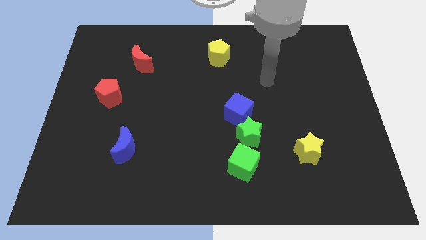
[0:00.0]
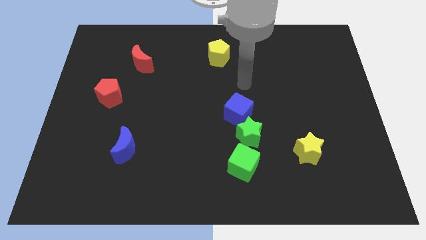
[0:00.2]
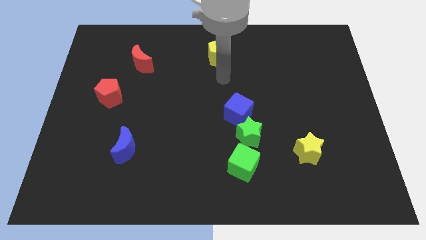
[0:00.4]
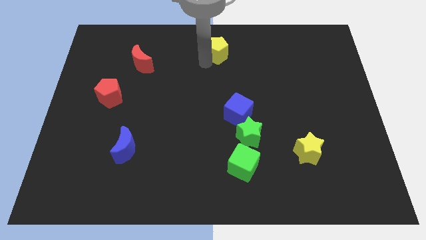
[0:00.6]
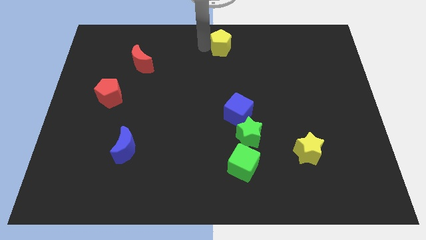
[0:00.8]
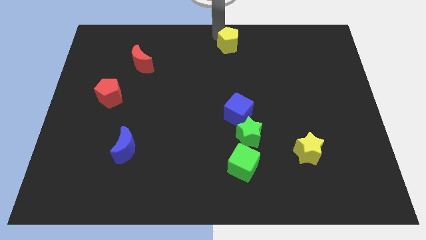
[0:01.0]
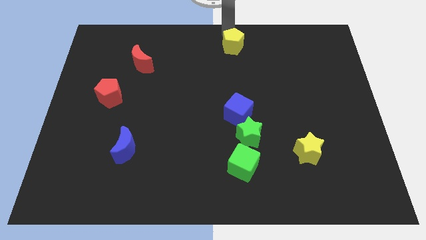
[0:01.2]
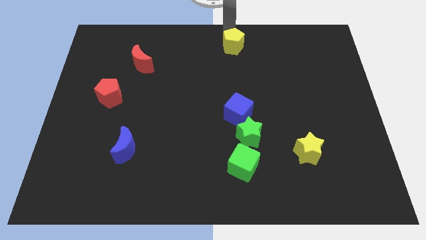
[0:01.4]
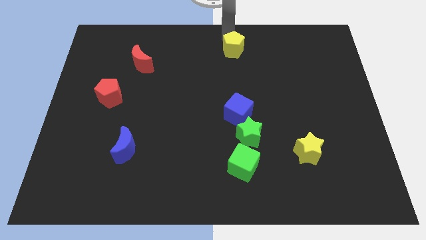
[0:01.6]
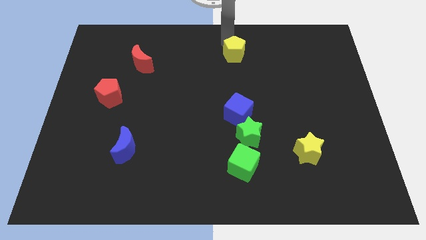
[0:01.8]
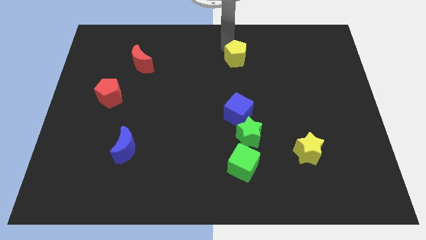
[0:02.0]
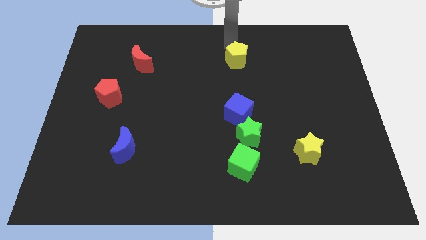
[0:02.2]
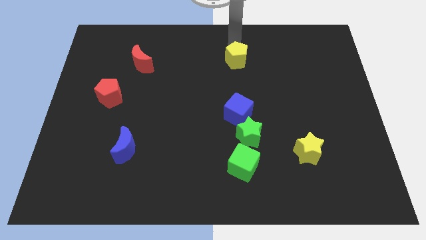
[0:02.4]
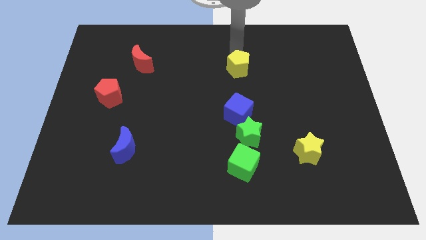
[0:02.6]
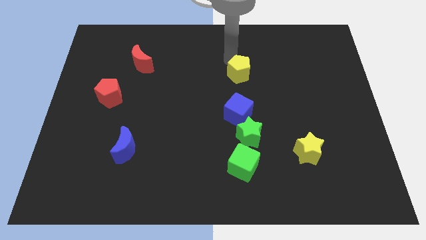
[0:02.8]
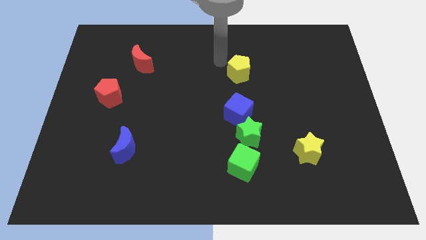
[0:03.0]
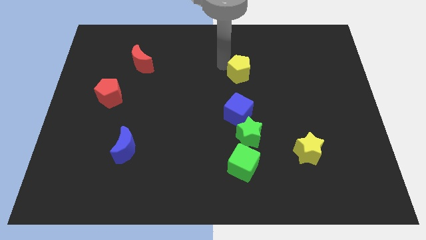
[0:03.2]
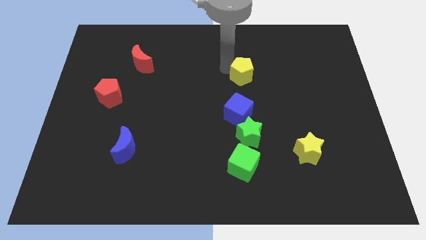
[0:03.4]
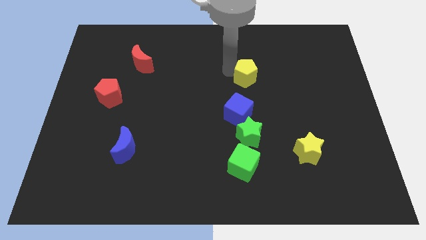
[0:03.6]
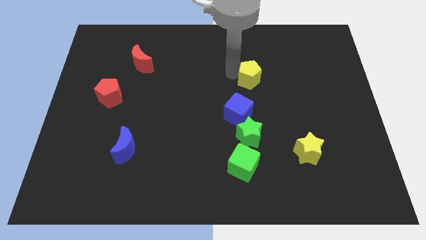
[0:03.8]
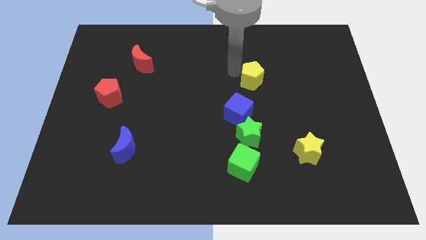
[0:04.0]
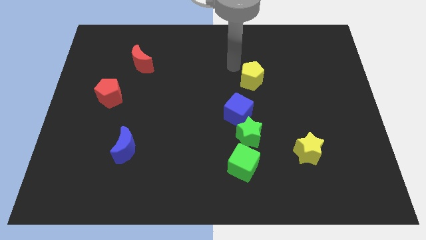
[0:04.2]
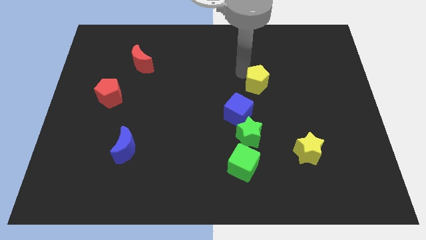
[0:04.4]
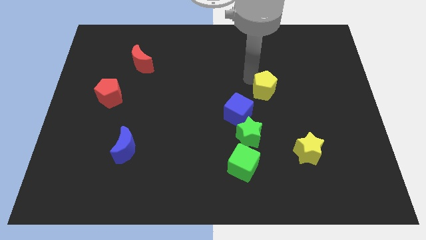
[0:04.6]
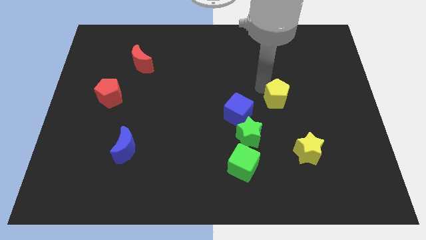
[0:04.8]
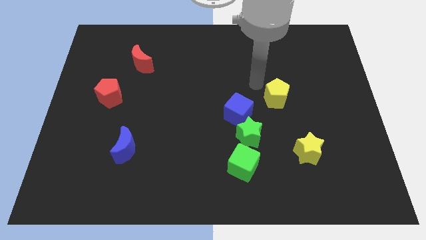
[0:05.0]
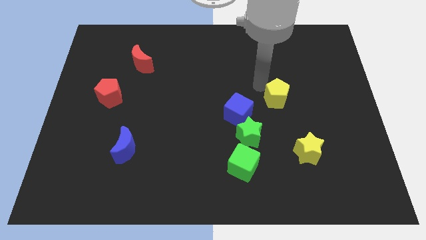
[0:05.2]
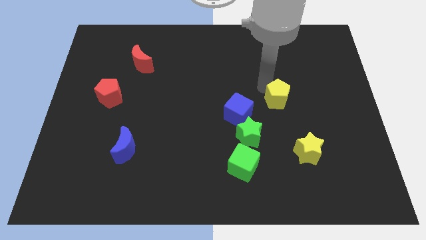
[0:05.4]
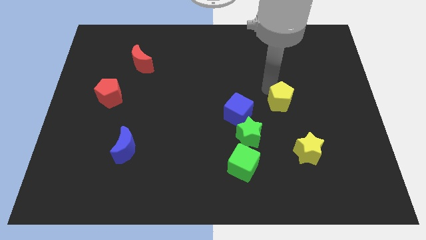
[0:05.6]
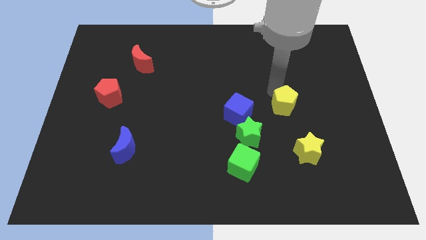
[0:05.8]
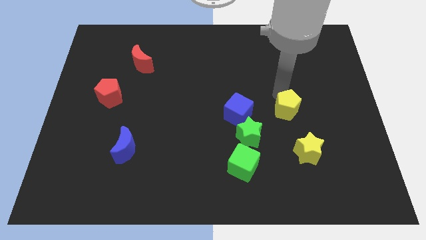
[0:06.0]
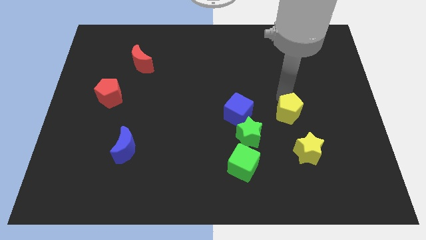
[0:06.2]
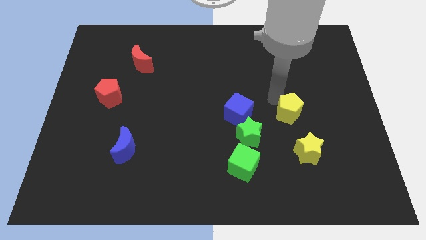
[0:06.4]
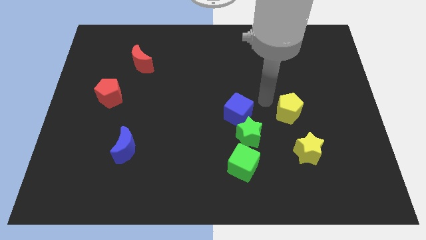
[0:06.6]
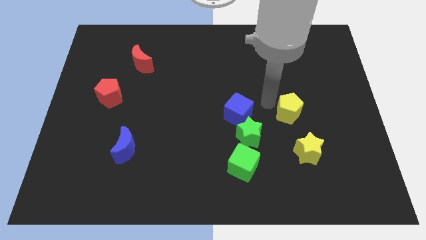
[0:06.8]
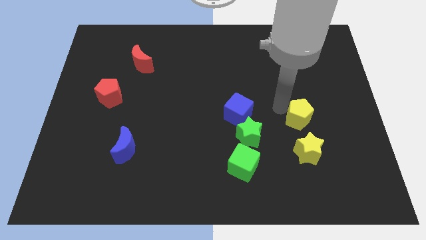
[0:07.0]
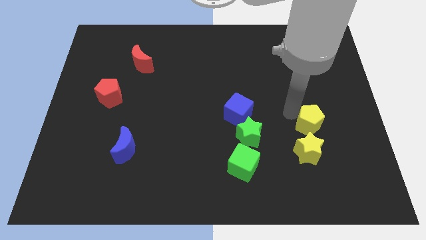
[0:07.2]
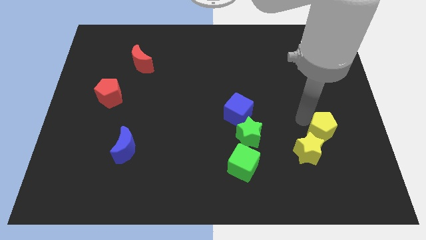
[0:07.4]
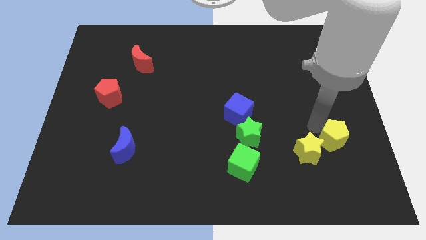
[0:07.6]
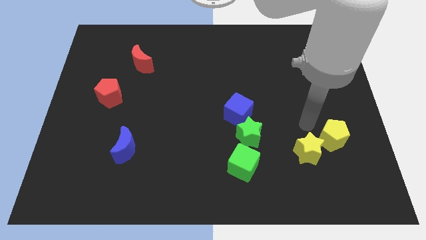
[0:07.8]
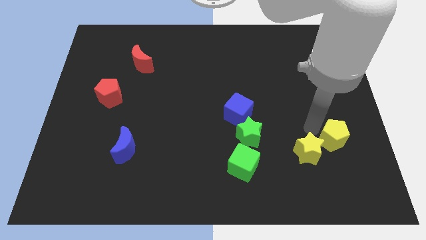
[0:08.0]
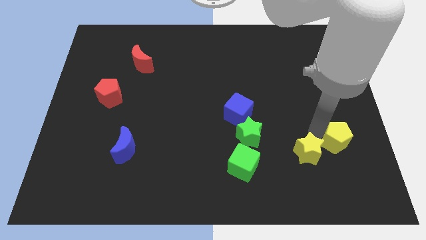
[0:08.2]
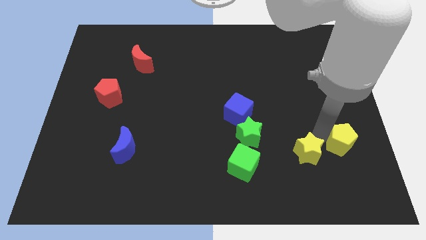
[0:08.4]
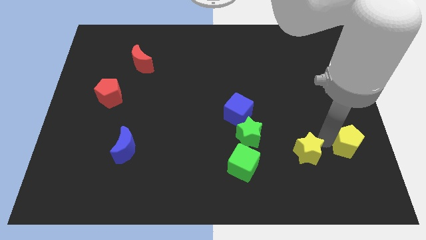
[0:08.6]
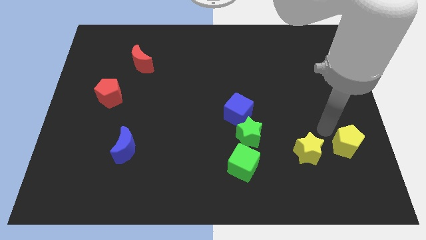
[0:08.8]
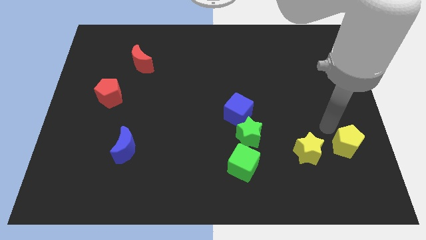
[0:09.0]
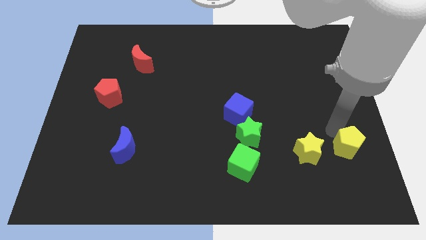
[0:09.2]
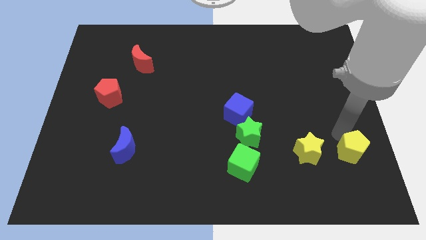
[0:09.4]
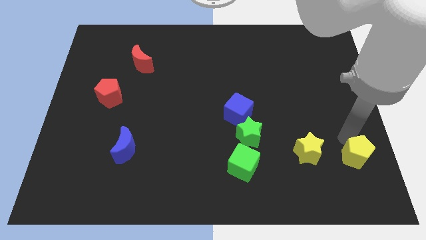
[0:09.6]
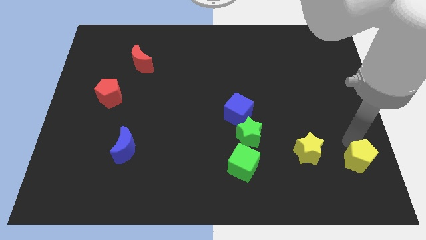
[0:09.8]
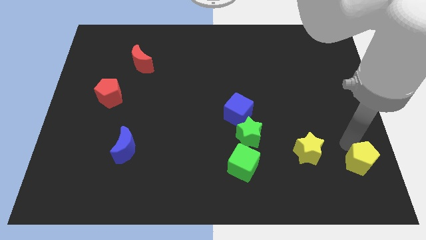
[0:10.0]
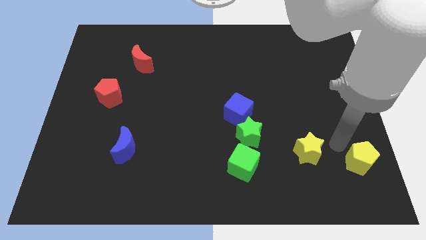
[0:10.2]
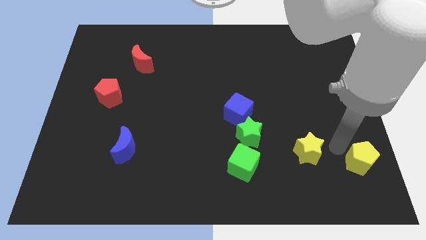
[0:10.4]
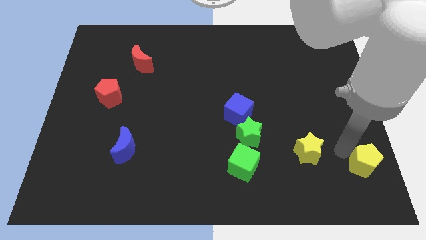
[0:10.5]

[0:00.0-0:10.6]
put the yellow pentagon to the bottom right

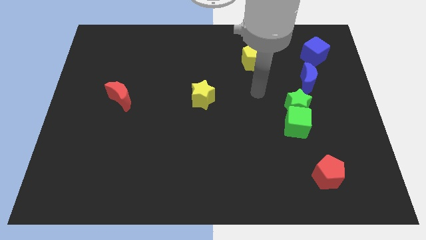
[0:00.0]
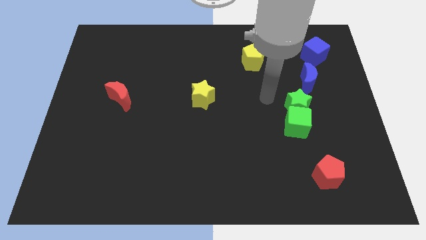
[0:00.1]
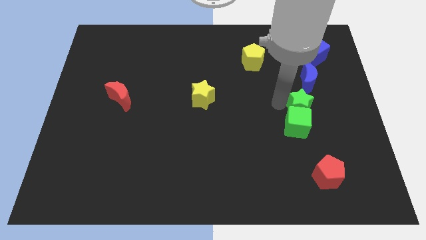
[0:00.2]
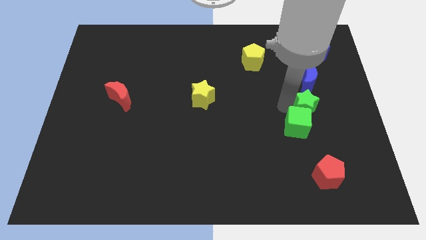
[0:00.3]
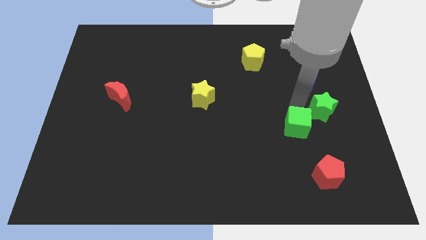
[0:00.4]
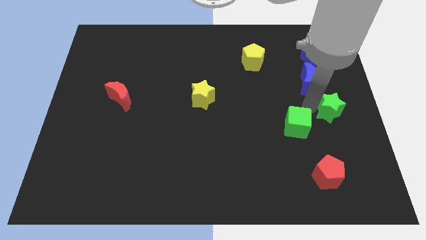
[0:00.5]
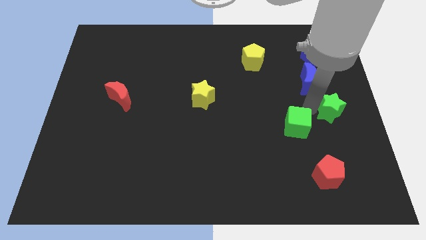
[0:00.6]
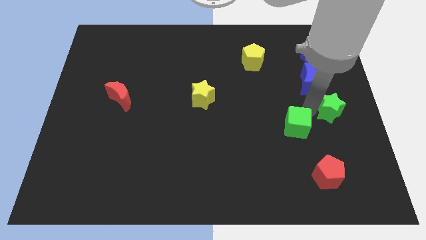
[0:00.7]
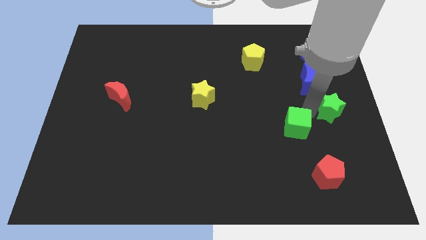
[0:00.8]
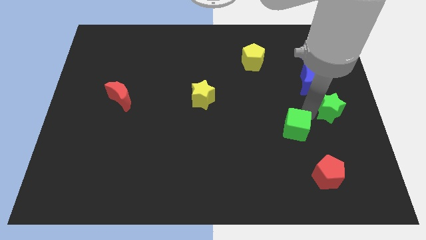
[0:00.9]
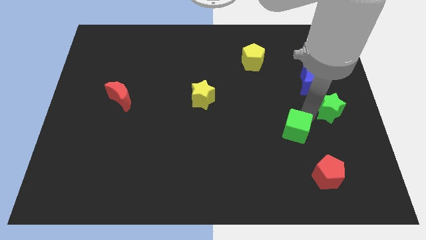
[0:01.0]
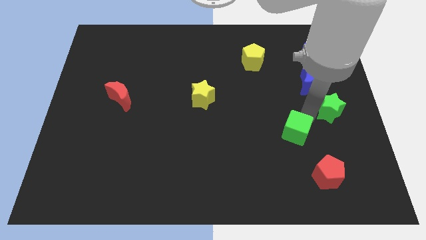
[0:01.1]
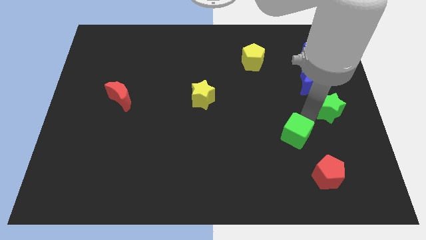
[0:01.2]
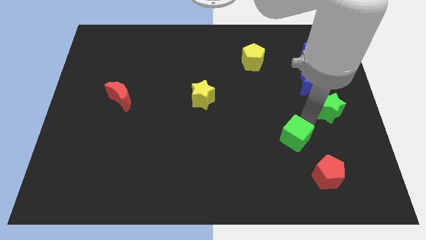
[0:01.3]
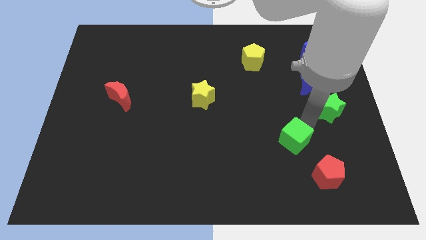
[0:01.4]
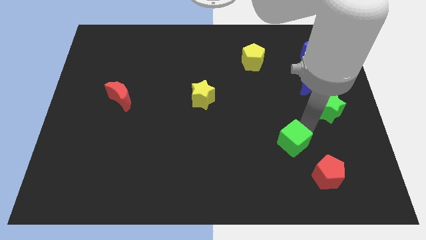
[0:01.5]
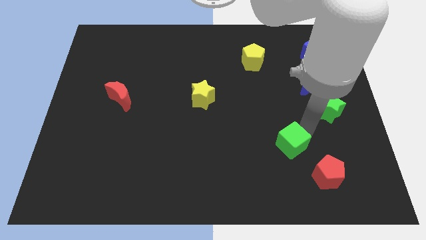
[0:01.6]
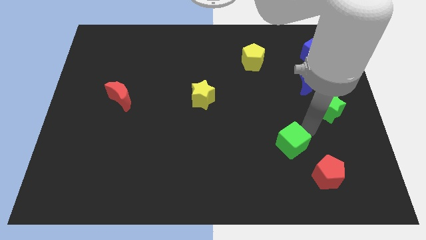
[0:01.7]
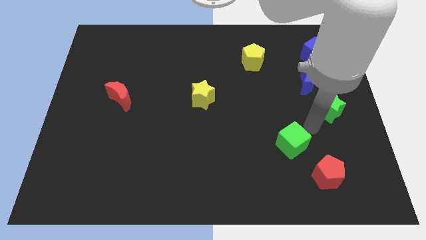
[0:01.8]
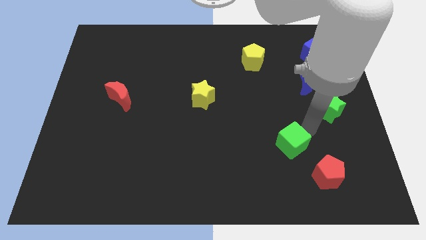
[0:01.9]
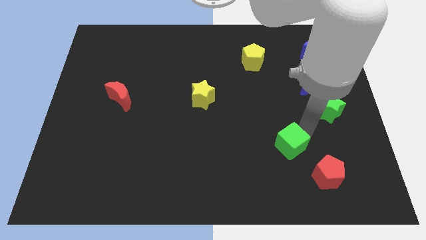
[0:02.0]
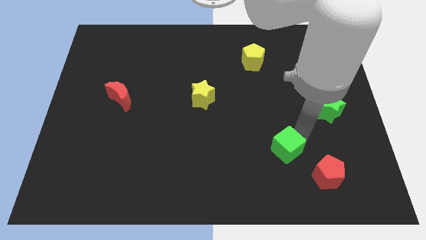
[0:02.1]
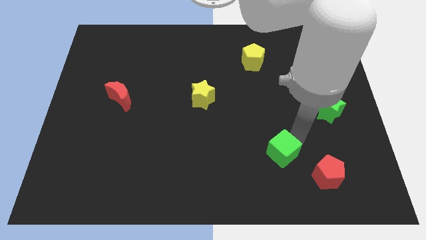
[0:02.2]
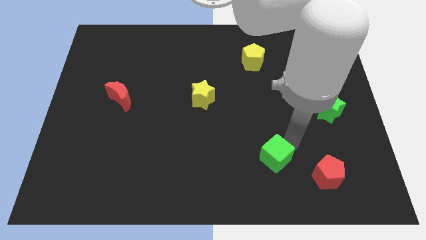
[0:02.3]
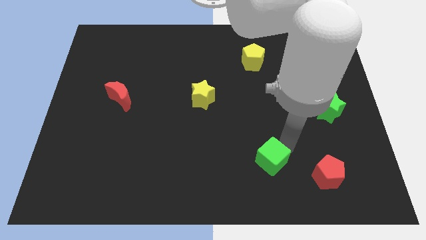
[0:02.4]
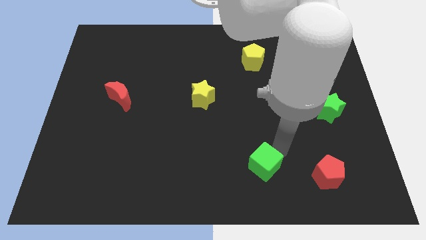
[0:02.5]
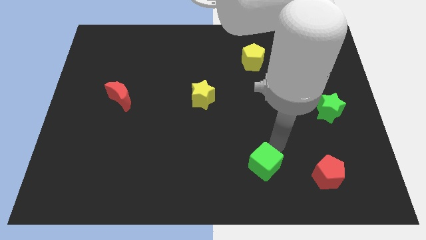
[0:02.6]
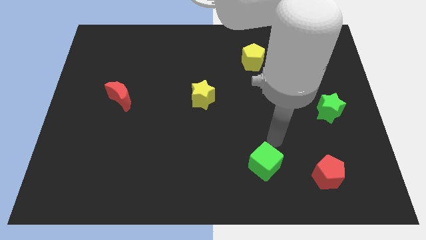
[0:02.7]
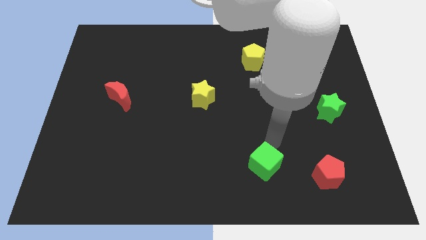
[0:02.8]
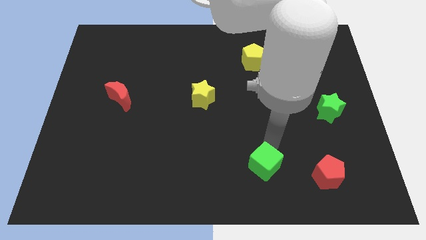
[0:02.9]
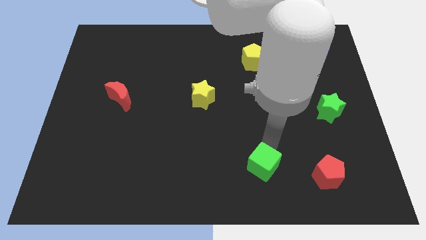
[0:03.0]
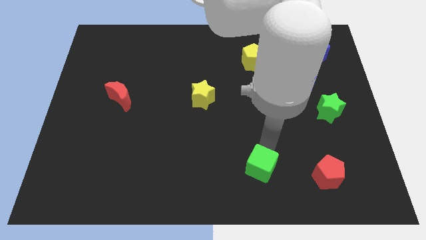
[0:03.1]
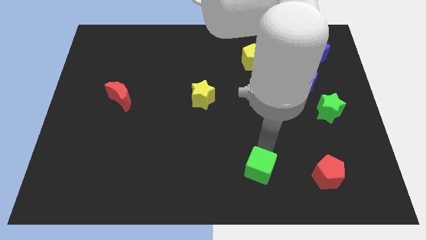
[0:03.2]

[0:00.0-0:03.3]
slide the green cube to the bottom side
